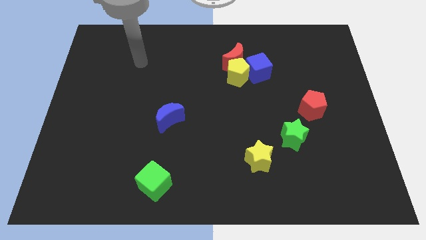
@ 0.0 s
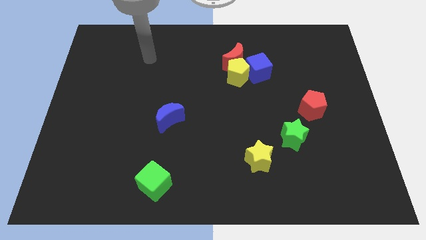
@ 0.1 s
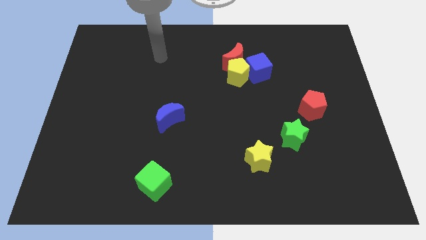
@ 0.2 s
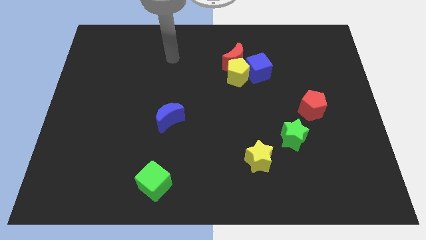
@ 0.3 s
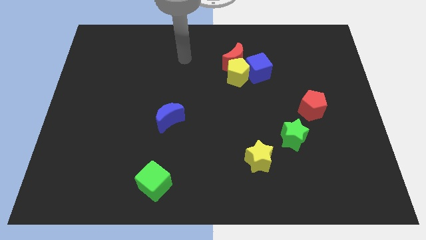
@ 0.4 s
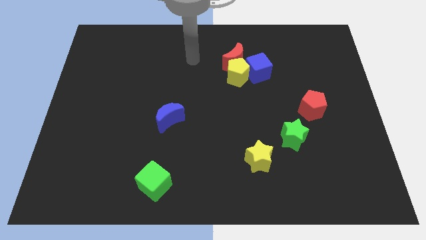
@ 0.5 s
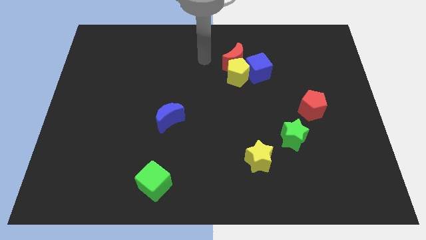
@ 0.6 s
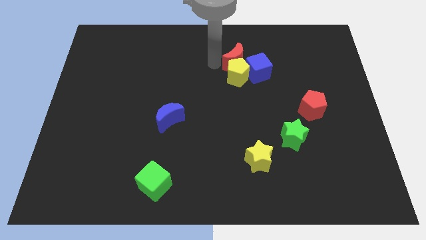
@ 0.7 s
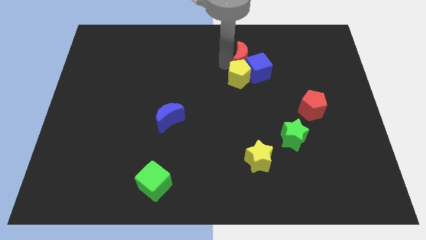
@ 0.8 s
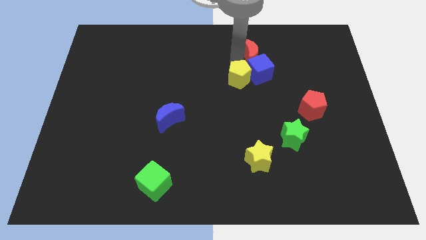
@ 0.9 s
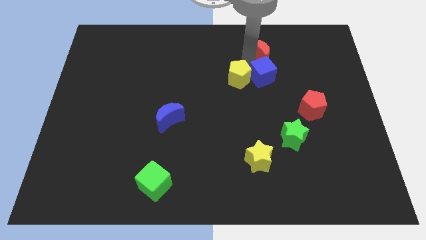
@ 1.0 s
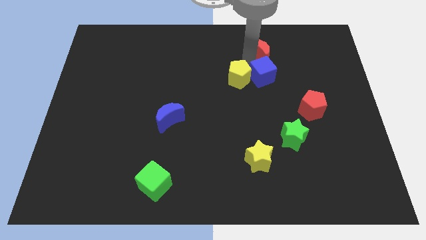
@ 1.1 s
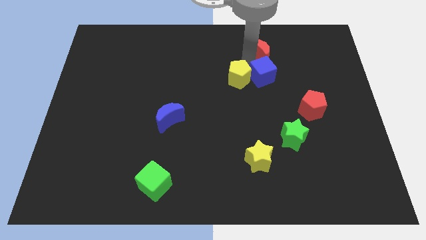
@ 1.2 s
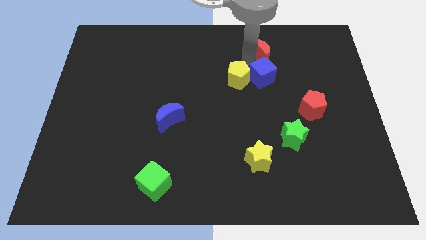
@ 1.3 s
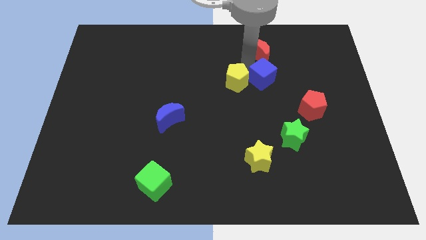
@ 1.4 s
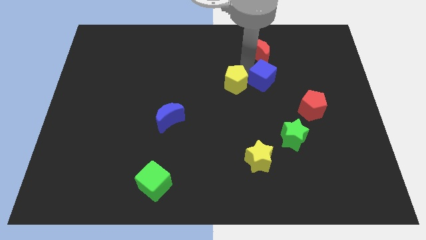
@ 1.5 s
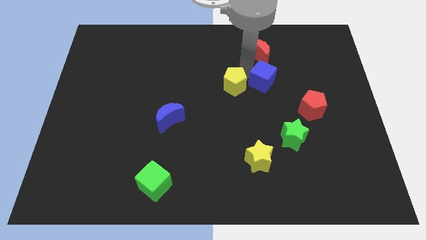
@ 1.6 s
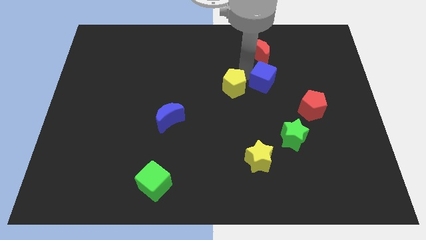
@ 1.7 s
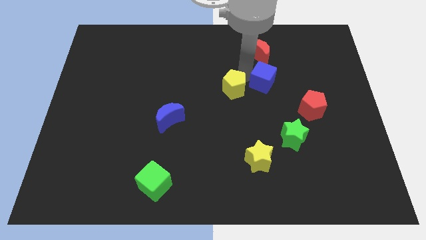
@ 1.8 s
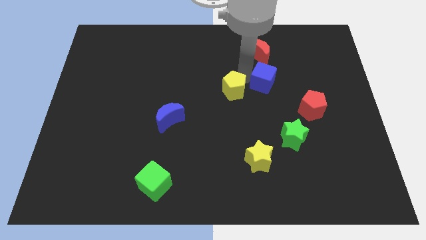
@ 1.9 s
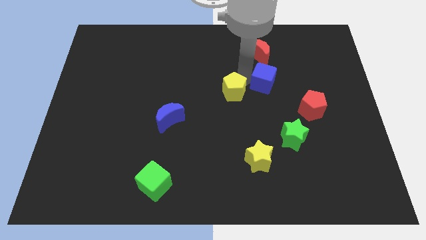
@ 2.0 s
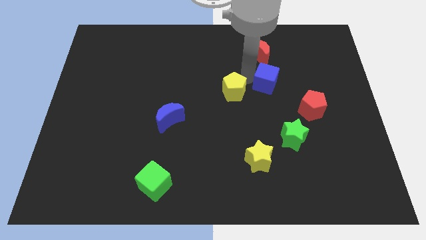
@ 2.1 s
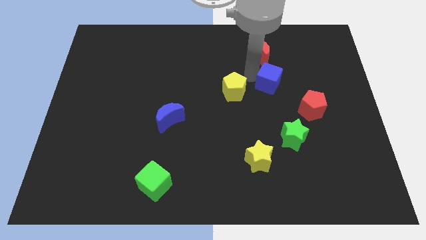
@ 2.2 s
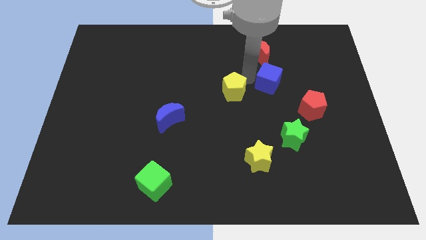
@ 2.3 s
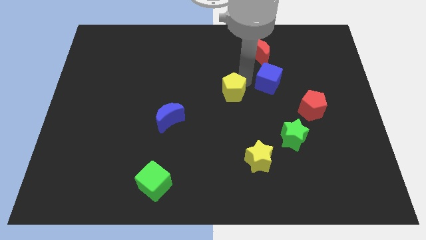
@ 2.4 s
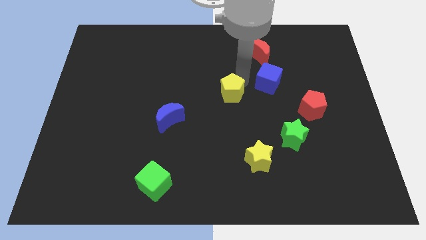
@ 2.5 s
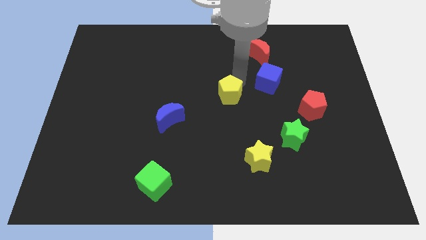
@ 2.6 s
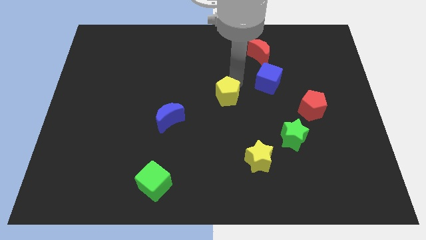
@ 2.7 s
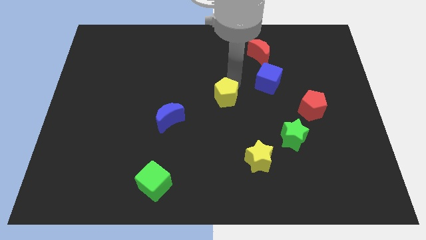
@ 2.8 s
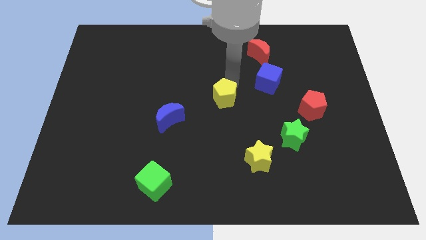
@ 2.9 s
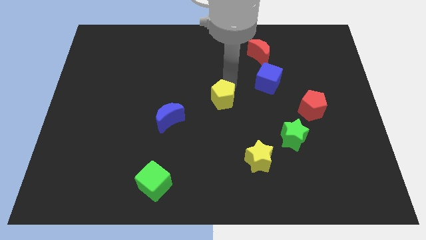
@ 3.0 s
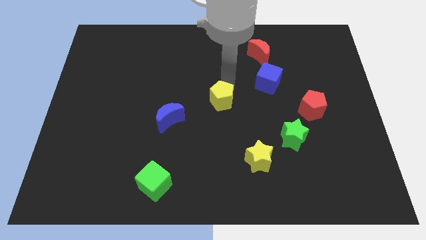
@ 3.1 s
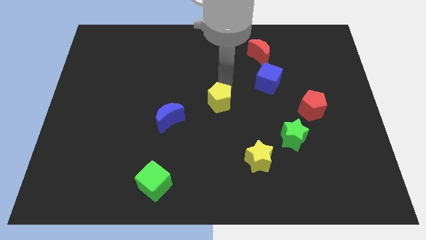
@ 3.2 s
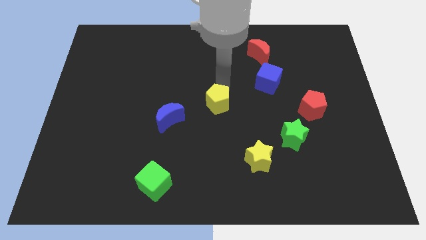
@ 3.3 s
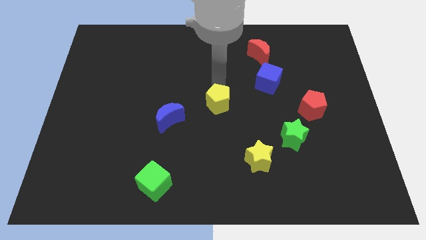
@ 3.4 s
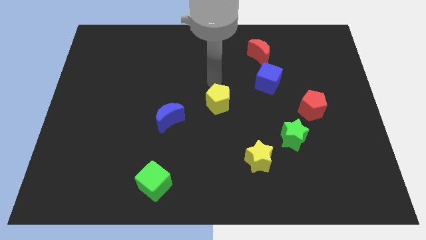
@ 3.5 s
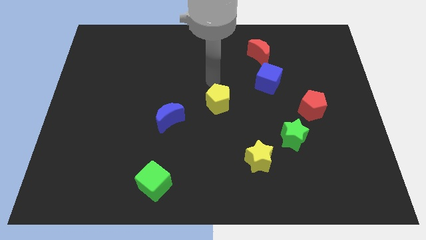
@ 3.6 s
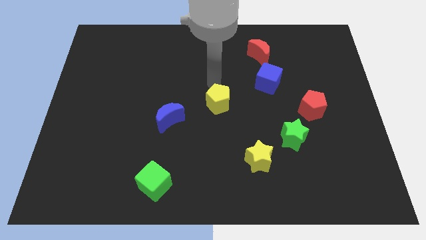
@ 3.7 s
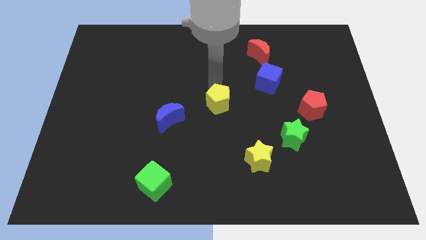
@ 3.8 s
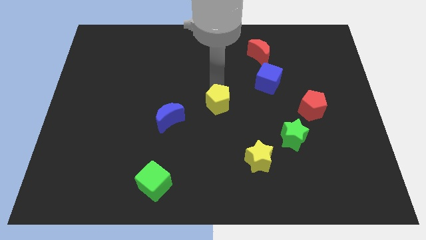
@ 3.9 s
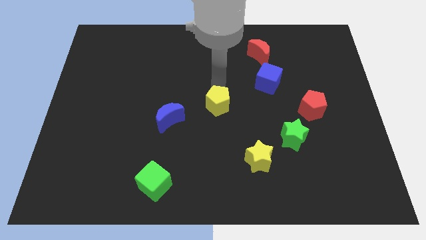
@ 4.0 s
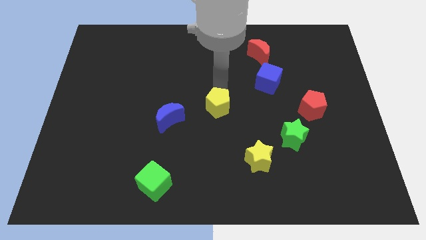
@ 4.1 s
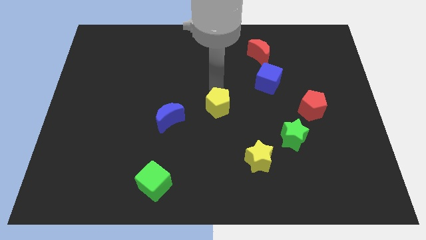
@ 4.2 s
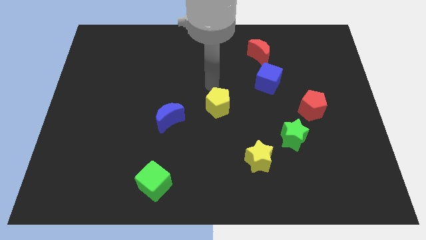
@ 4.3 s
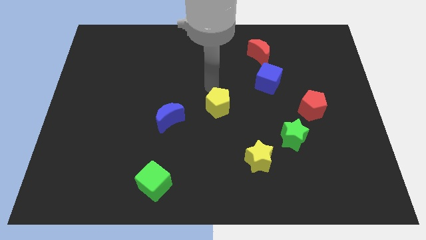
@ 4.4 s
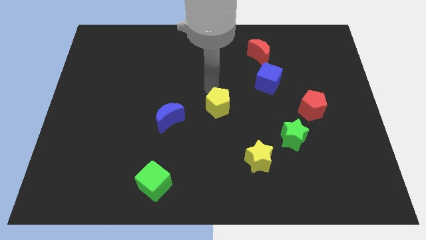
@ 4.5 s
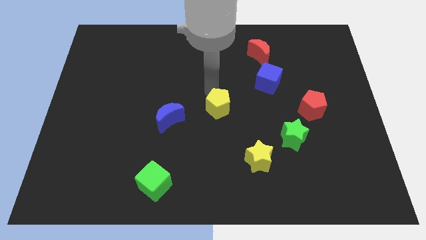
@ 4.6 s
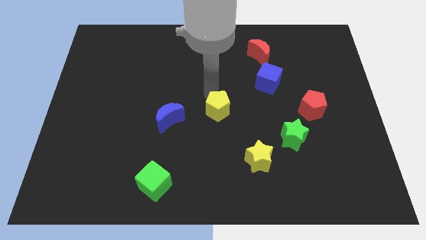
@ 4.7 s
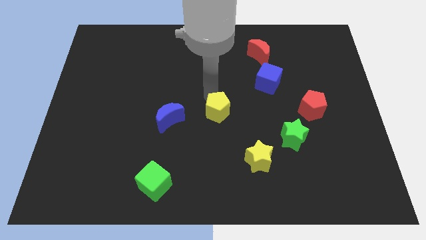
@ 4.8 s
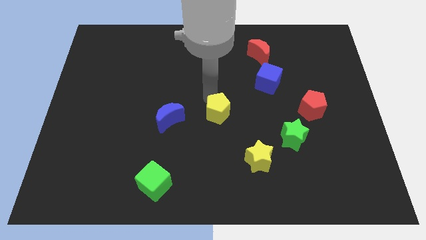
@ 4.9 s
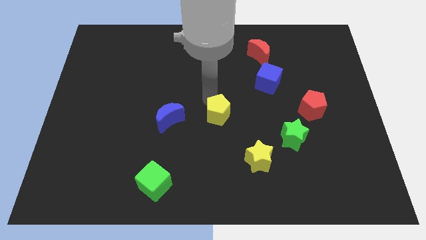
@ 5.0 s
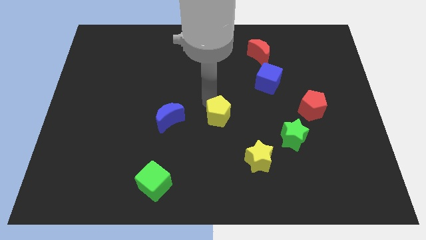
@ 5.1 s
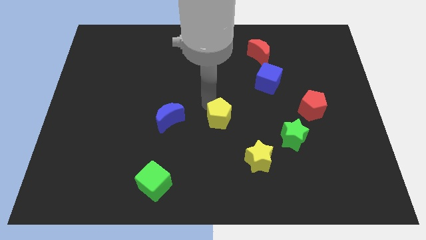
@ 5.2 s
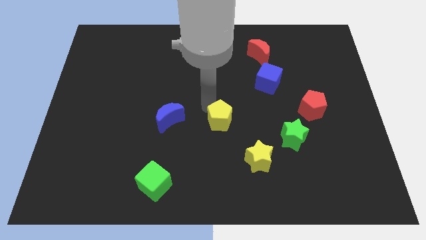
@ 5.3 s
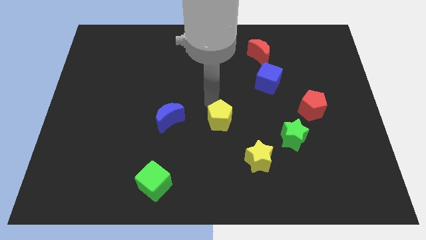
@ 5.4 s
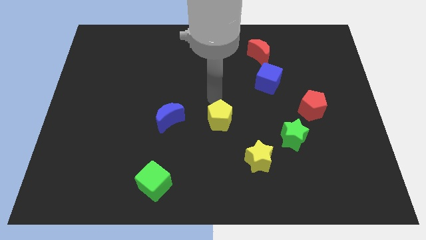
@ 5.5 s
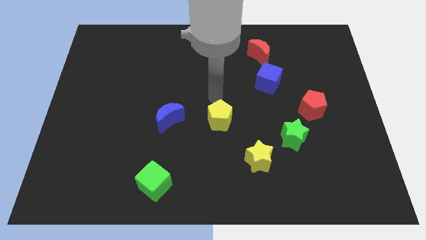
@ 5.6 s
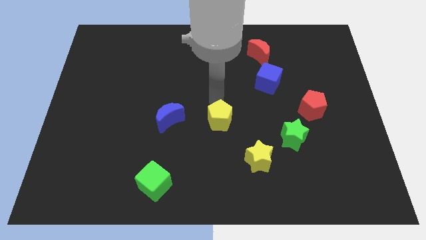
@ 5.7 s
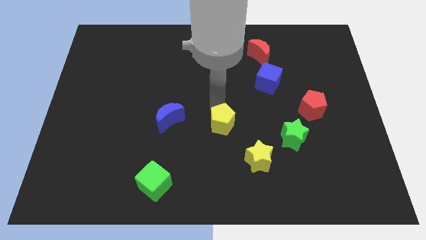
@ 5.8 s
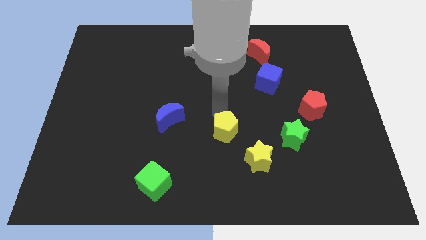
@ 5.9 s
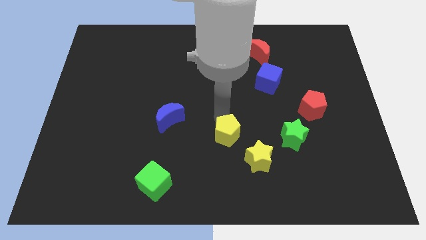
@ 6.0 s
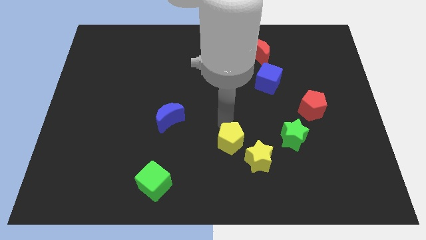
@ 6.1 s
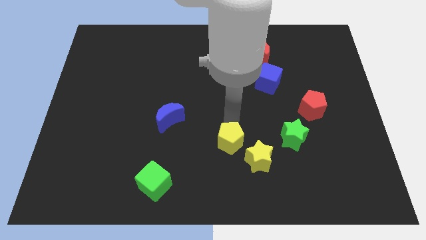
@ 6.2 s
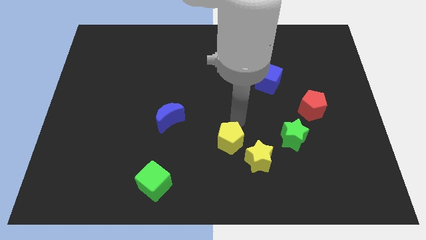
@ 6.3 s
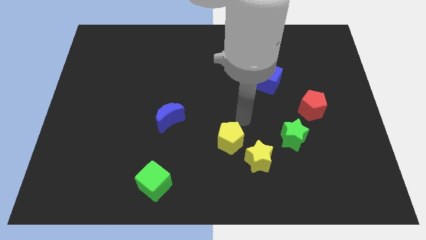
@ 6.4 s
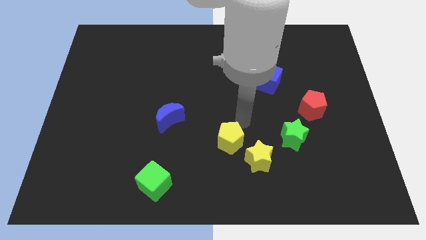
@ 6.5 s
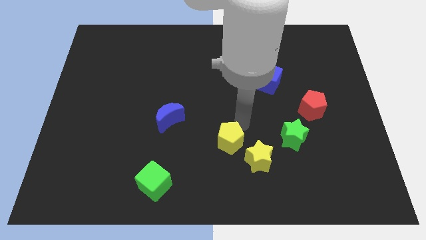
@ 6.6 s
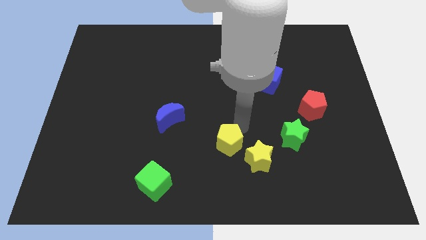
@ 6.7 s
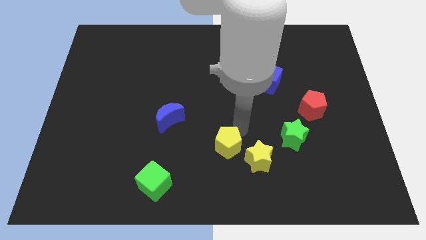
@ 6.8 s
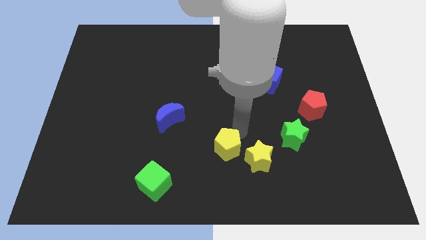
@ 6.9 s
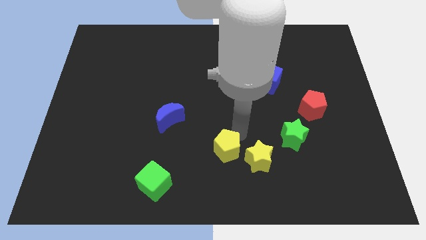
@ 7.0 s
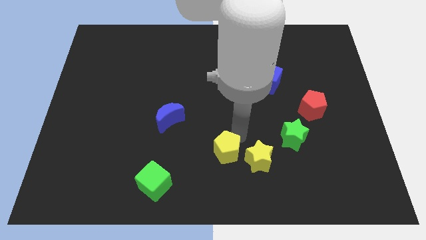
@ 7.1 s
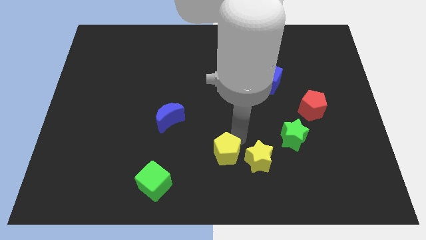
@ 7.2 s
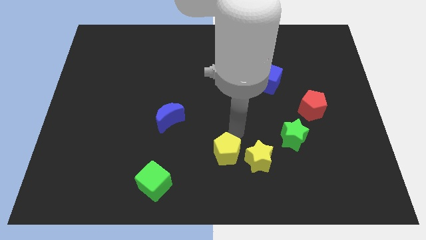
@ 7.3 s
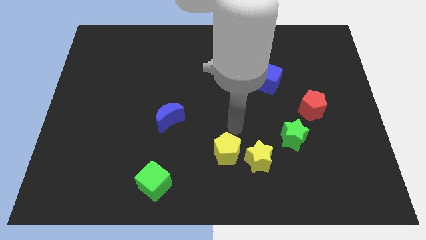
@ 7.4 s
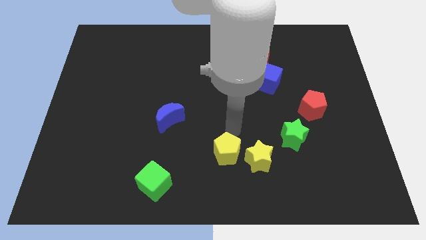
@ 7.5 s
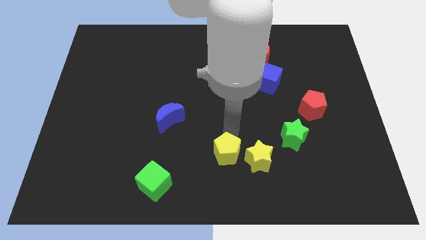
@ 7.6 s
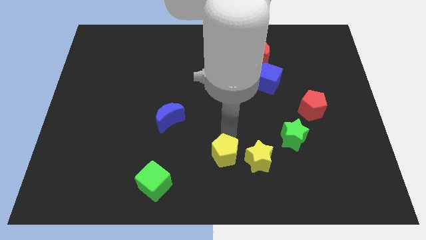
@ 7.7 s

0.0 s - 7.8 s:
put the yellow pentagon to the bottom
